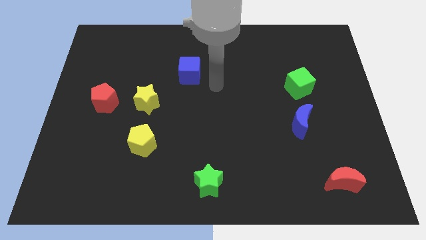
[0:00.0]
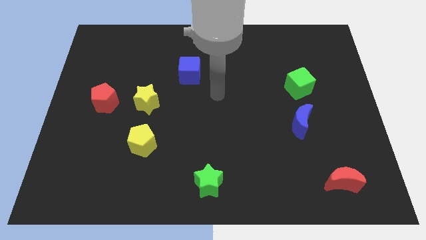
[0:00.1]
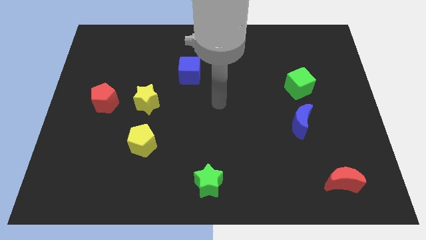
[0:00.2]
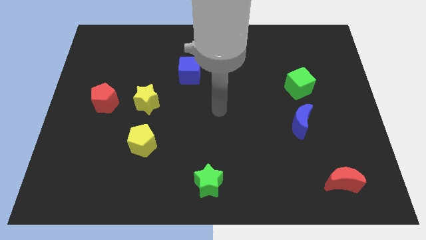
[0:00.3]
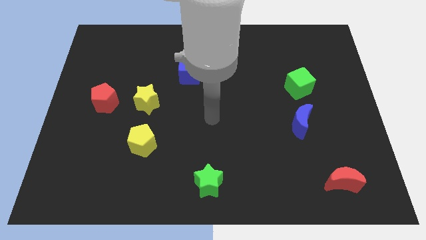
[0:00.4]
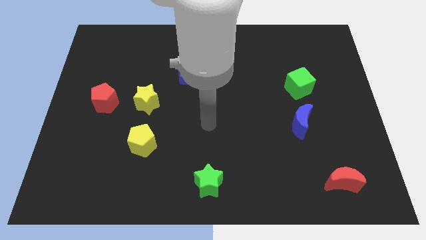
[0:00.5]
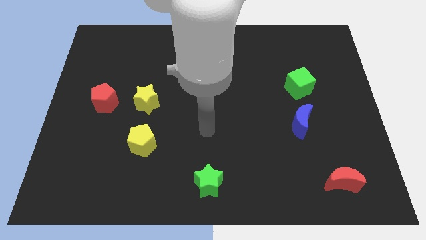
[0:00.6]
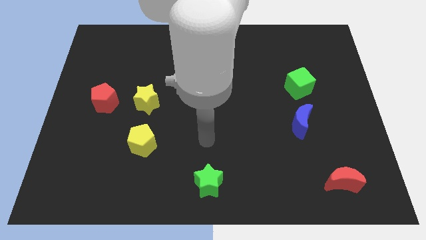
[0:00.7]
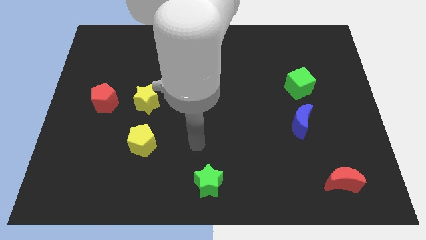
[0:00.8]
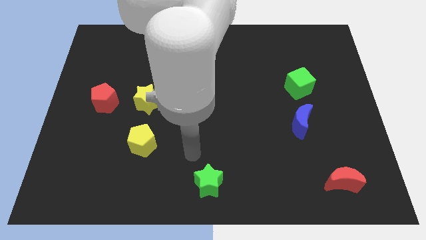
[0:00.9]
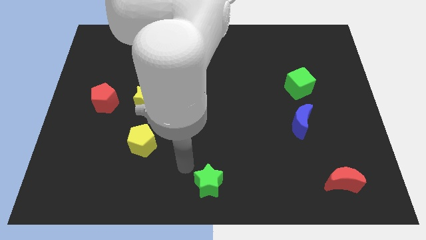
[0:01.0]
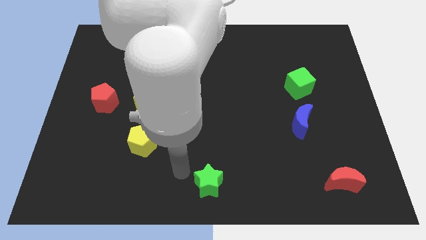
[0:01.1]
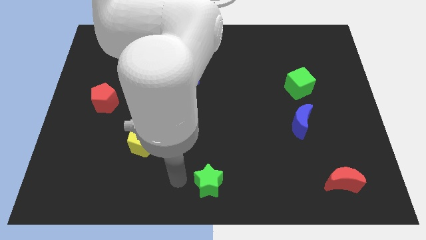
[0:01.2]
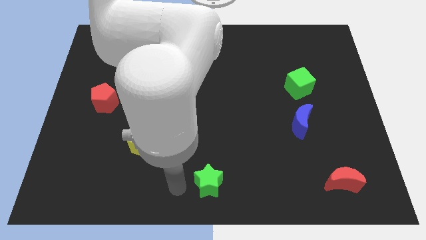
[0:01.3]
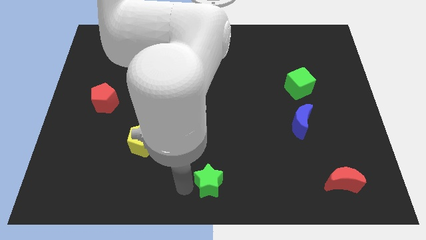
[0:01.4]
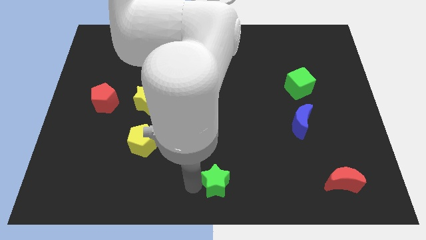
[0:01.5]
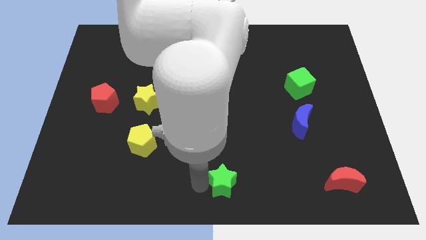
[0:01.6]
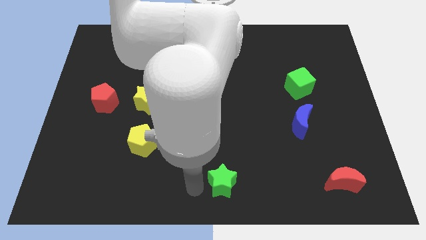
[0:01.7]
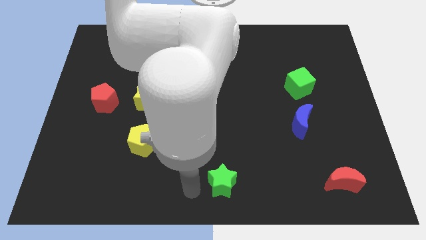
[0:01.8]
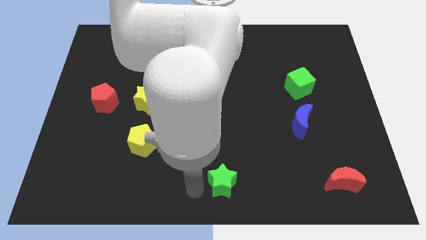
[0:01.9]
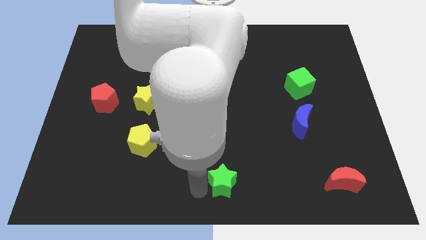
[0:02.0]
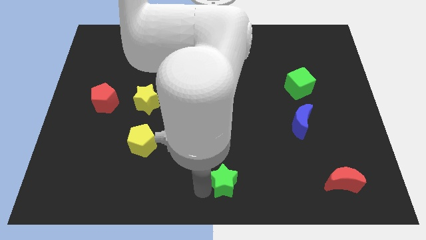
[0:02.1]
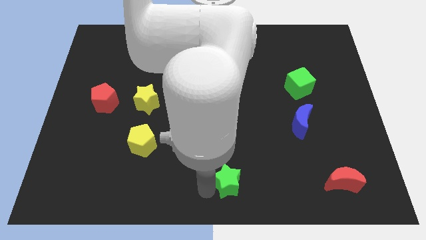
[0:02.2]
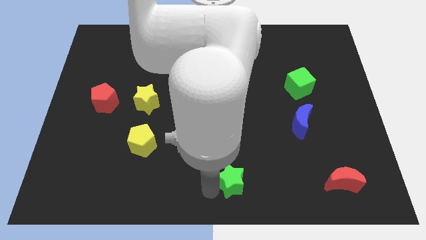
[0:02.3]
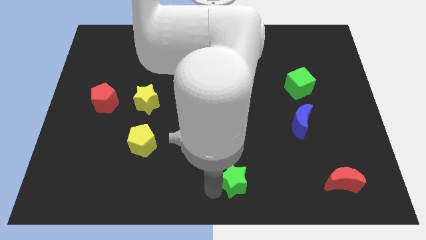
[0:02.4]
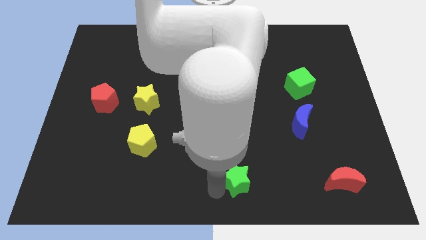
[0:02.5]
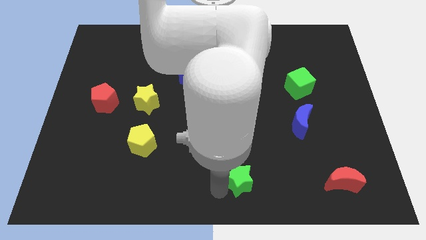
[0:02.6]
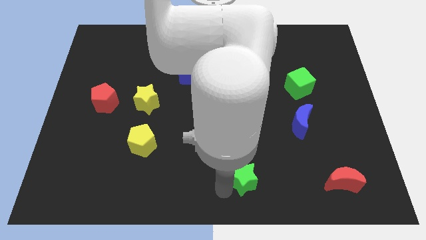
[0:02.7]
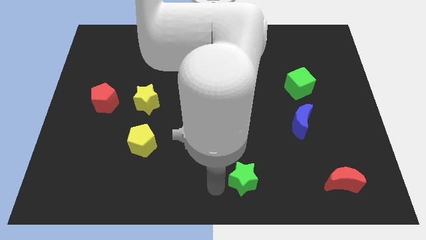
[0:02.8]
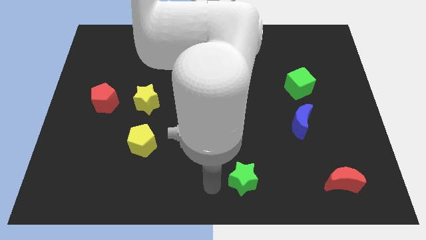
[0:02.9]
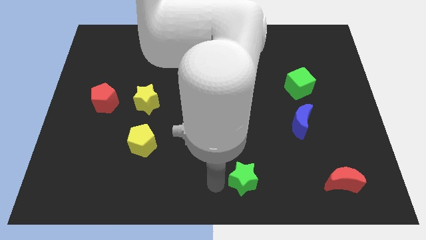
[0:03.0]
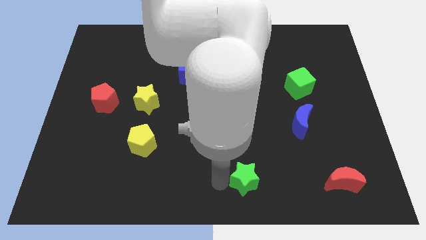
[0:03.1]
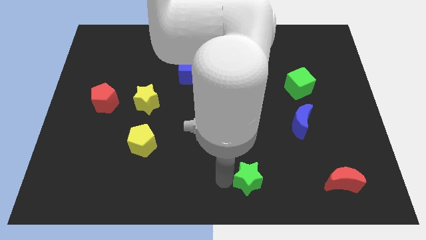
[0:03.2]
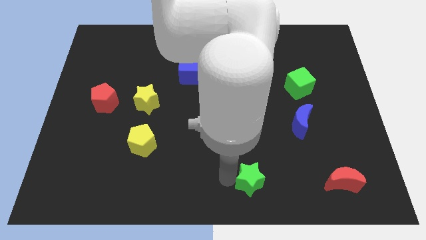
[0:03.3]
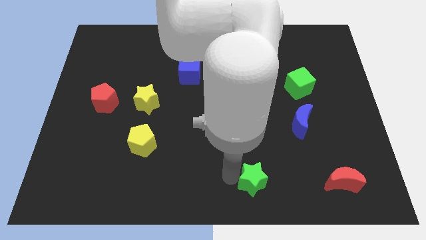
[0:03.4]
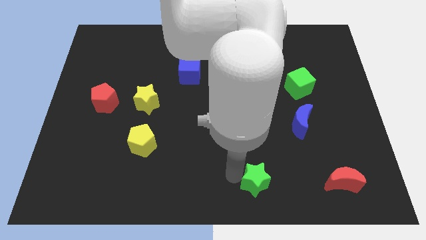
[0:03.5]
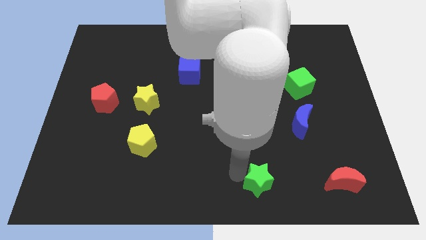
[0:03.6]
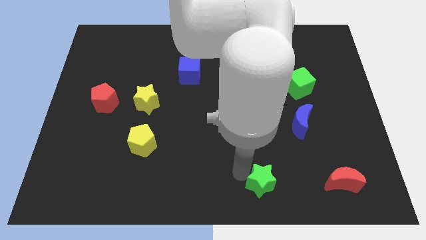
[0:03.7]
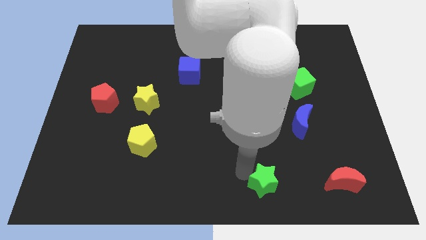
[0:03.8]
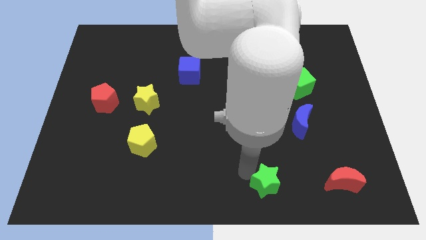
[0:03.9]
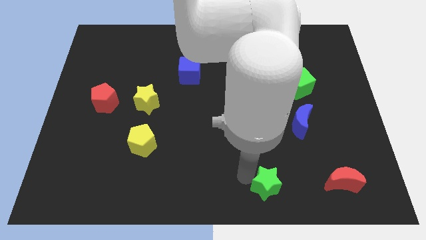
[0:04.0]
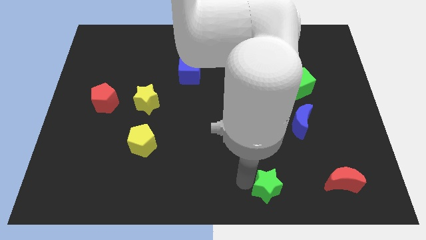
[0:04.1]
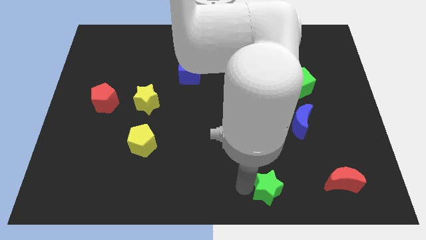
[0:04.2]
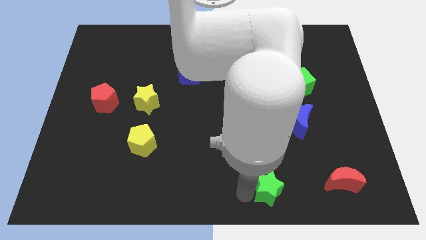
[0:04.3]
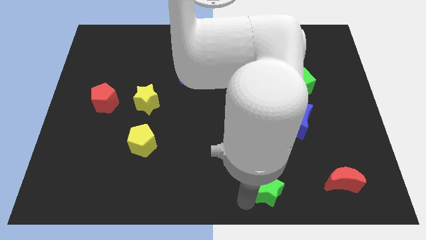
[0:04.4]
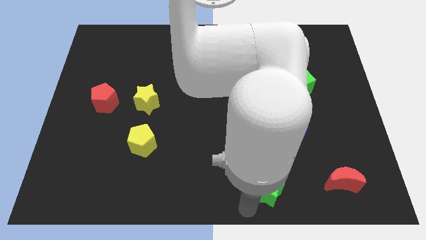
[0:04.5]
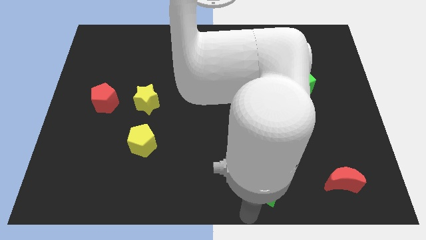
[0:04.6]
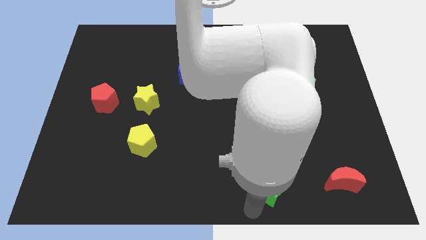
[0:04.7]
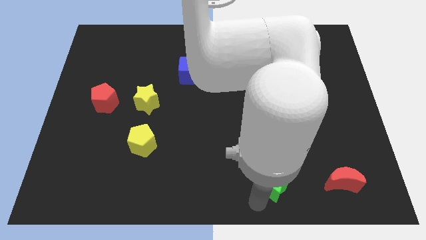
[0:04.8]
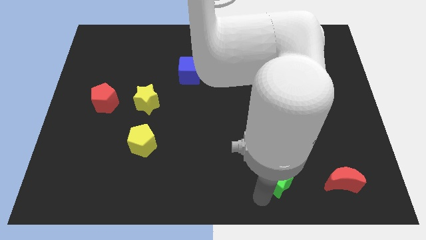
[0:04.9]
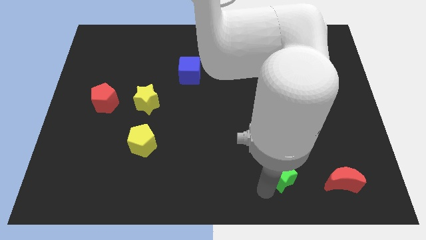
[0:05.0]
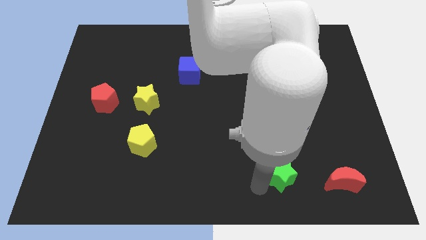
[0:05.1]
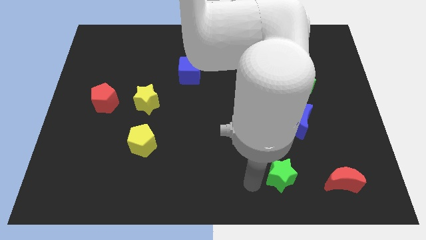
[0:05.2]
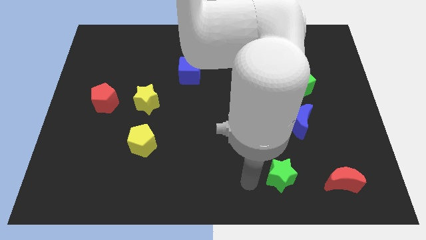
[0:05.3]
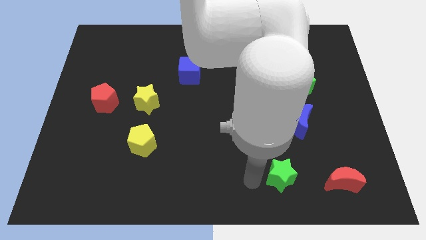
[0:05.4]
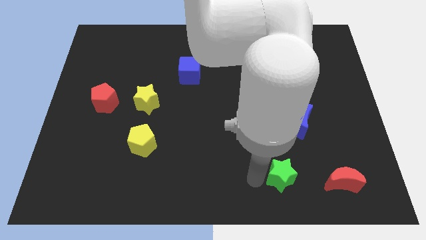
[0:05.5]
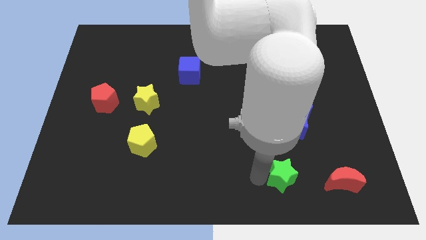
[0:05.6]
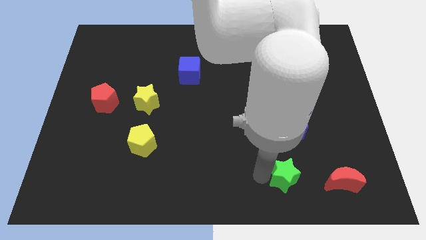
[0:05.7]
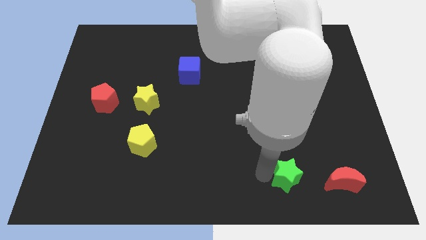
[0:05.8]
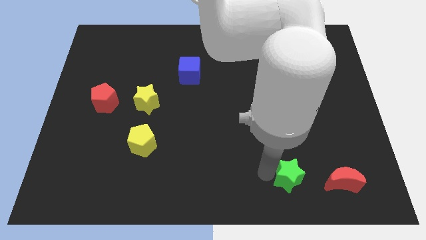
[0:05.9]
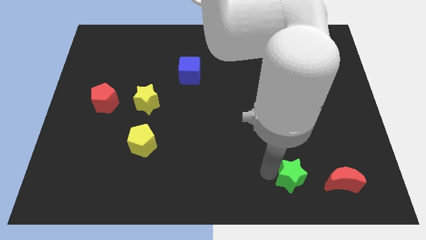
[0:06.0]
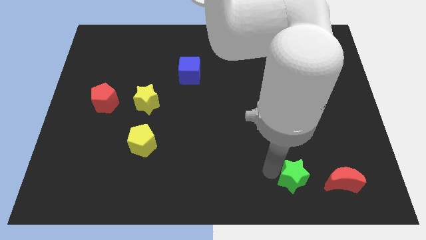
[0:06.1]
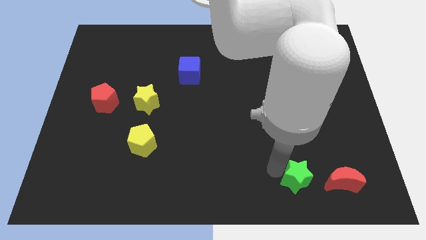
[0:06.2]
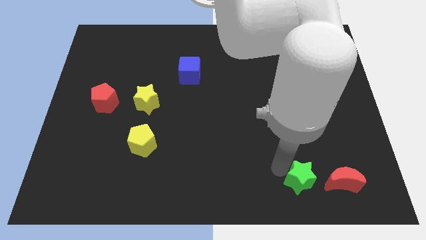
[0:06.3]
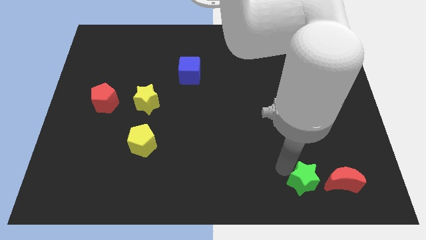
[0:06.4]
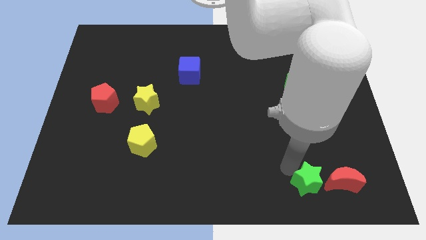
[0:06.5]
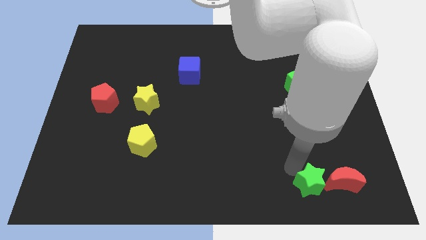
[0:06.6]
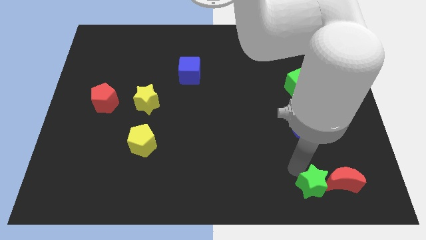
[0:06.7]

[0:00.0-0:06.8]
put the green star next to the red moon
